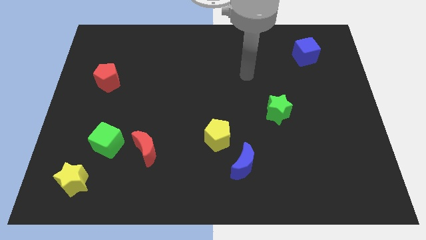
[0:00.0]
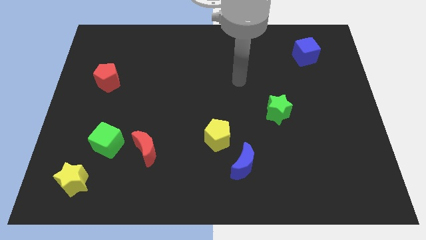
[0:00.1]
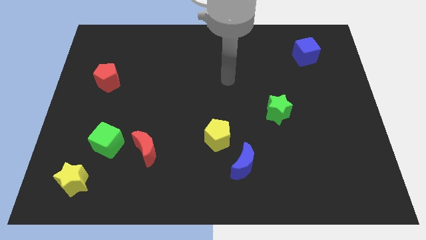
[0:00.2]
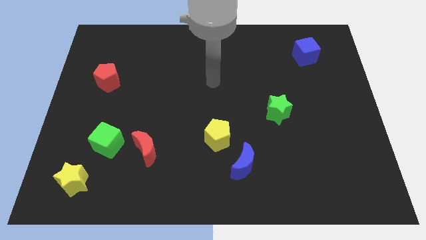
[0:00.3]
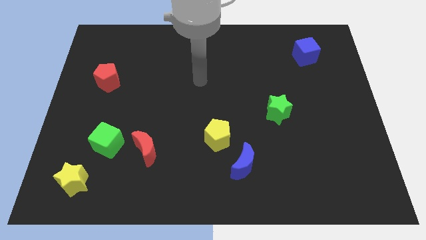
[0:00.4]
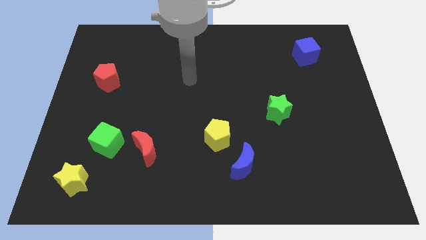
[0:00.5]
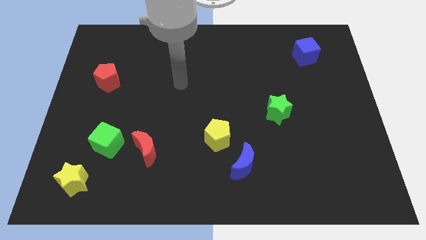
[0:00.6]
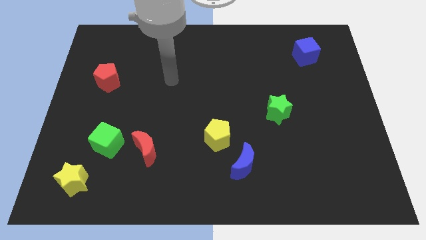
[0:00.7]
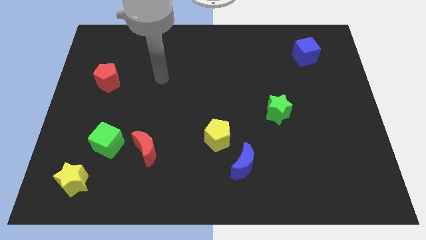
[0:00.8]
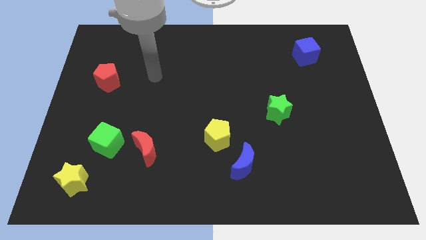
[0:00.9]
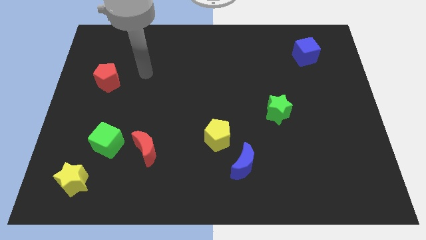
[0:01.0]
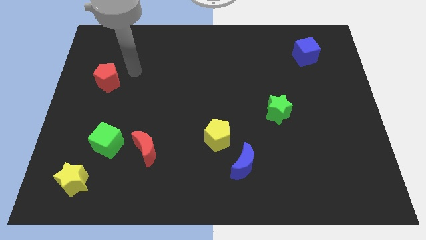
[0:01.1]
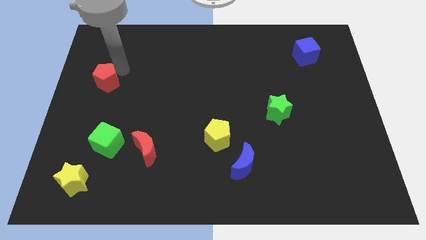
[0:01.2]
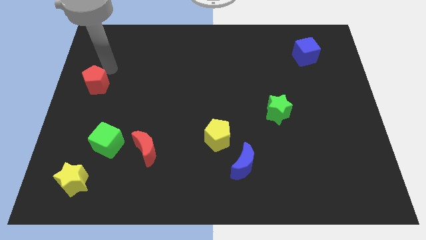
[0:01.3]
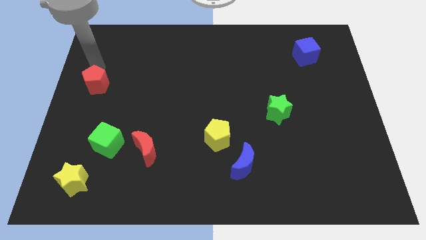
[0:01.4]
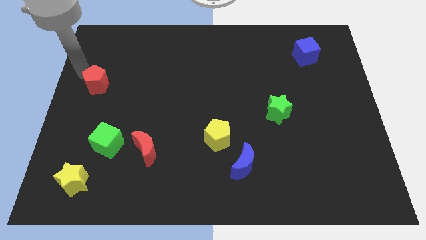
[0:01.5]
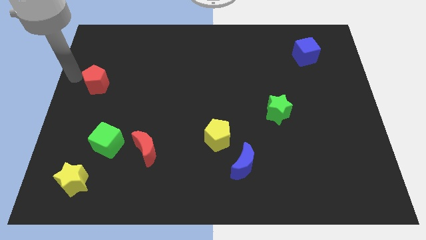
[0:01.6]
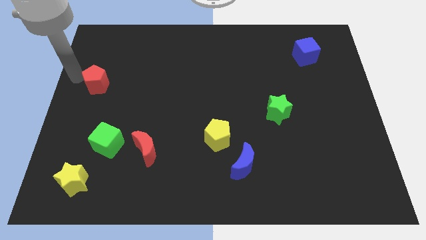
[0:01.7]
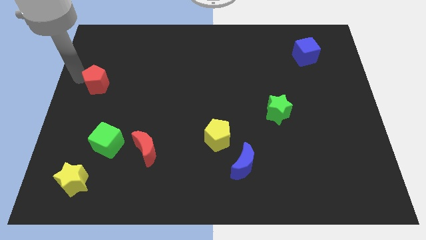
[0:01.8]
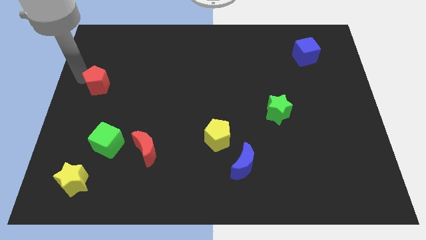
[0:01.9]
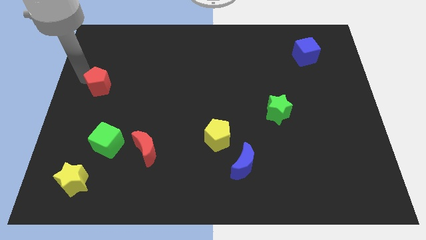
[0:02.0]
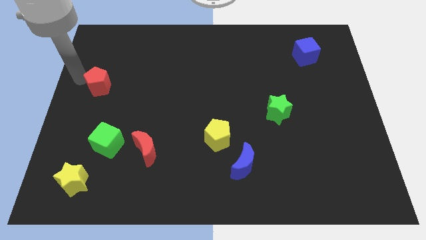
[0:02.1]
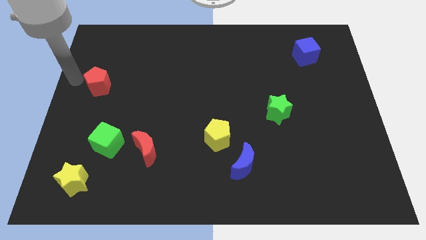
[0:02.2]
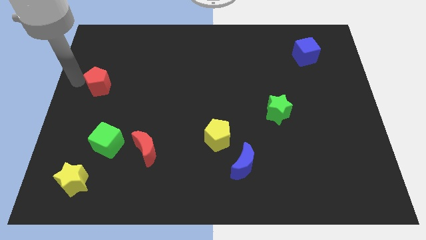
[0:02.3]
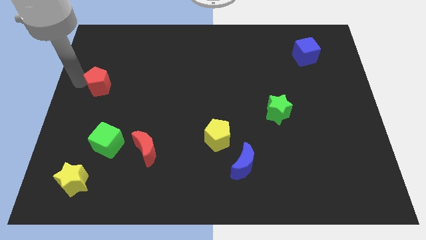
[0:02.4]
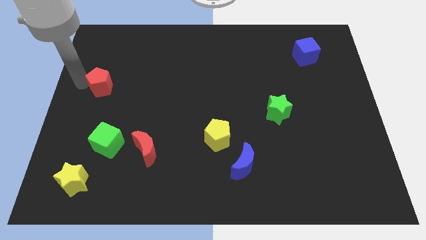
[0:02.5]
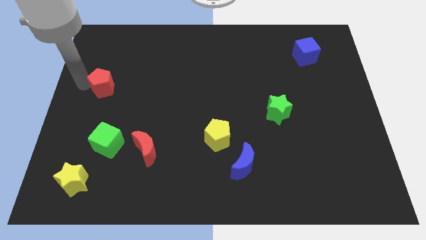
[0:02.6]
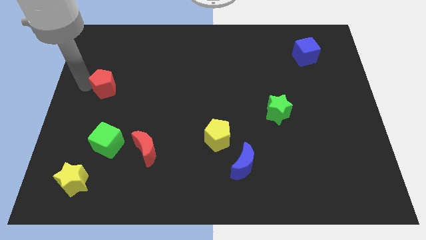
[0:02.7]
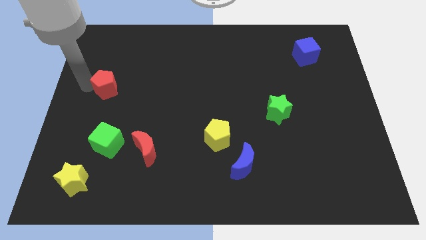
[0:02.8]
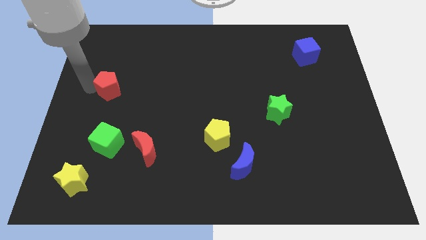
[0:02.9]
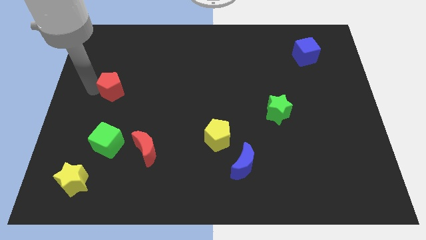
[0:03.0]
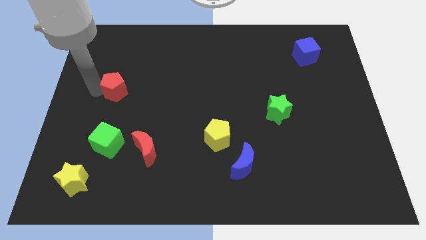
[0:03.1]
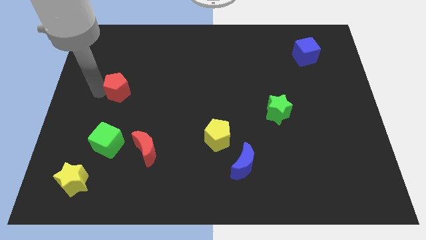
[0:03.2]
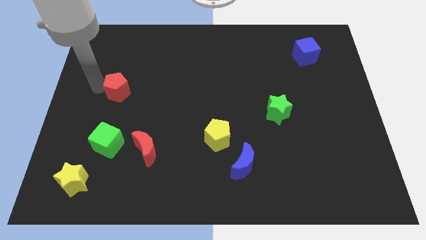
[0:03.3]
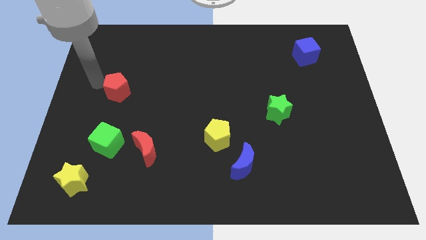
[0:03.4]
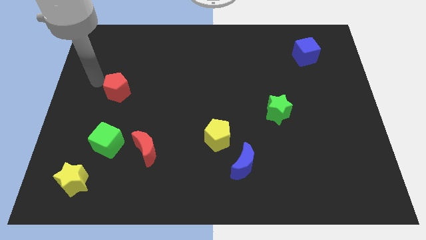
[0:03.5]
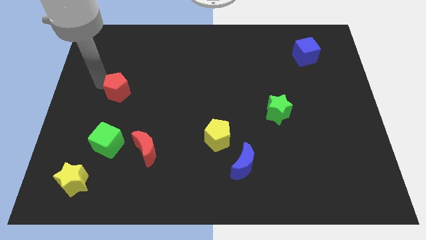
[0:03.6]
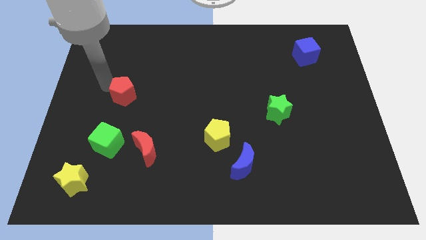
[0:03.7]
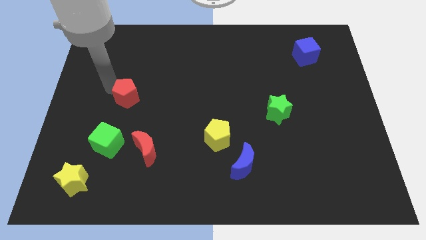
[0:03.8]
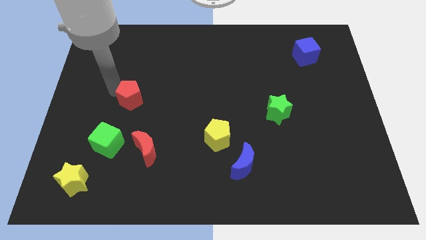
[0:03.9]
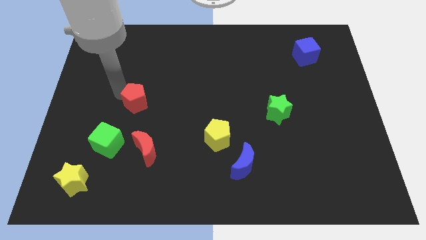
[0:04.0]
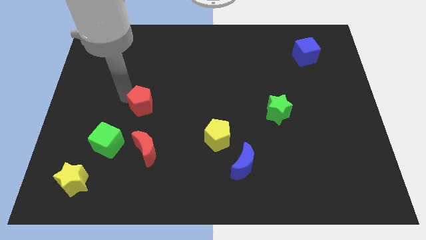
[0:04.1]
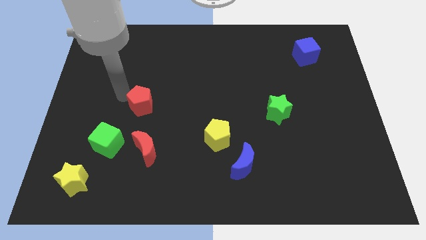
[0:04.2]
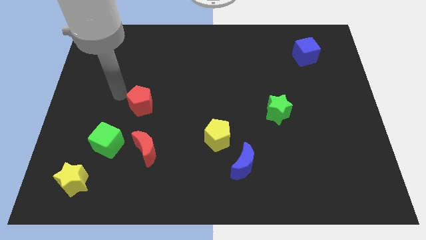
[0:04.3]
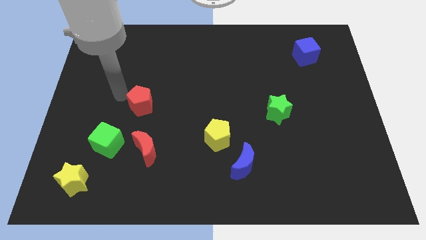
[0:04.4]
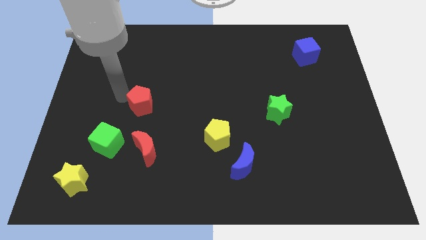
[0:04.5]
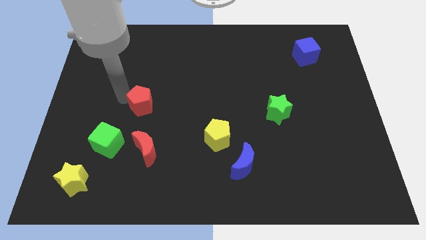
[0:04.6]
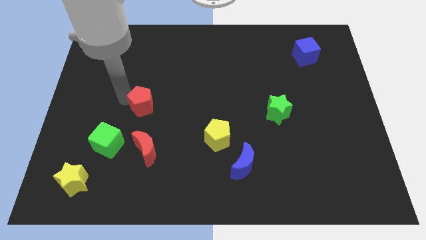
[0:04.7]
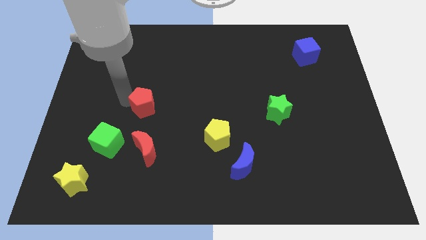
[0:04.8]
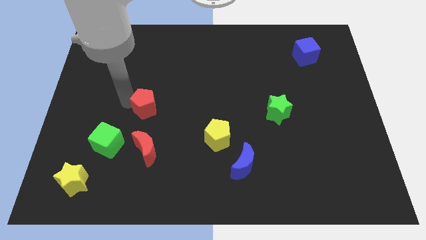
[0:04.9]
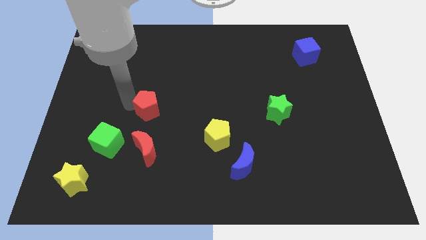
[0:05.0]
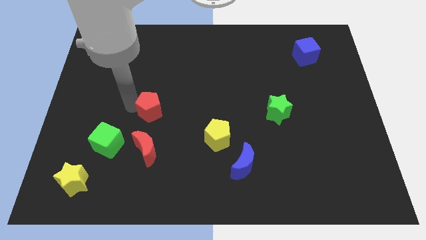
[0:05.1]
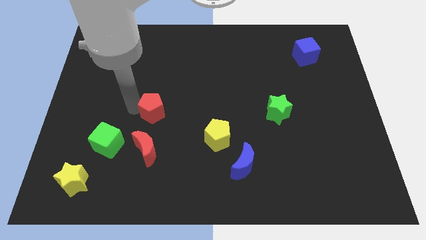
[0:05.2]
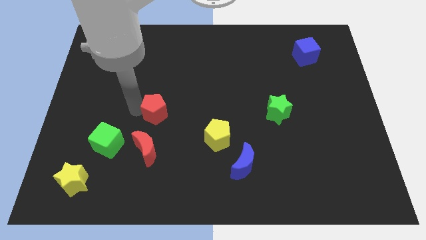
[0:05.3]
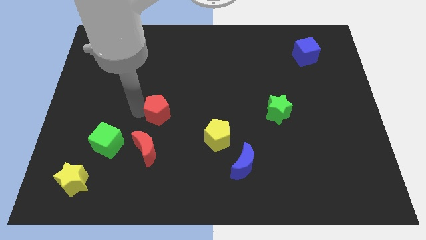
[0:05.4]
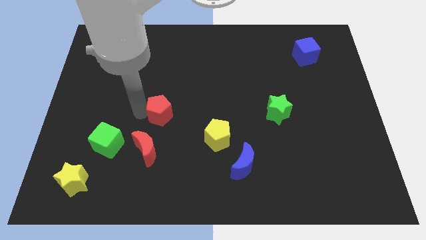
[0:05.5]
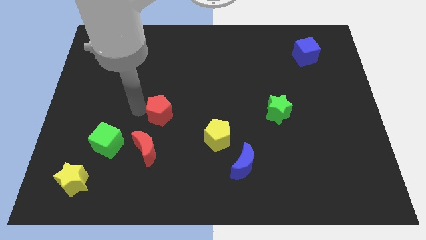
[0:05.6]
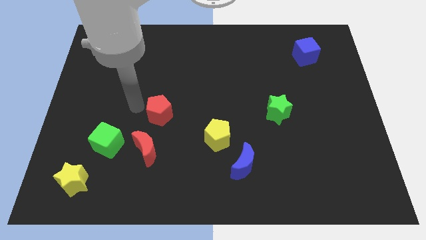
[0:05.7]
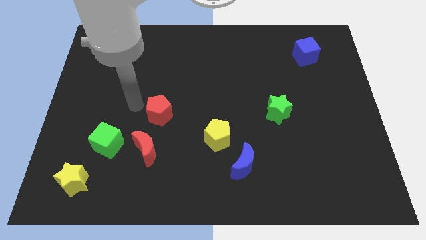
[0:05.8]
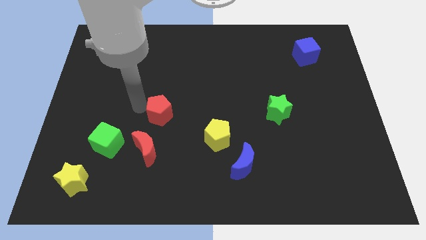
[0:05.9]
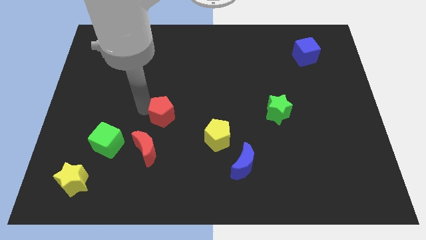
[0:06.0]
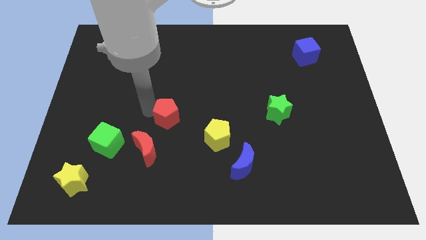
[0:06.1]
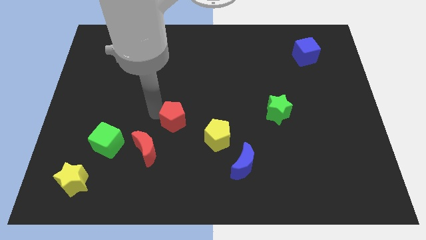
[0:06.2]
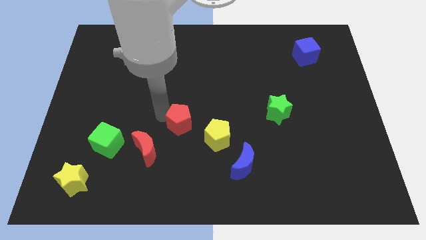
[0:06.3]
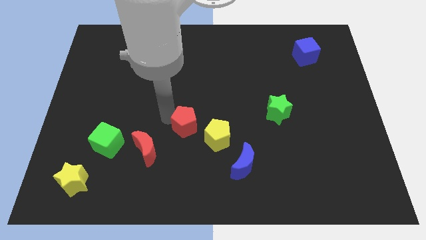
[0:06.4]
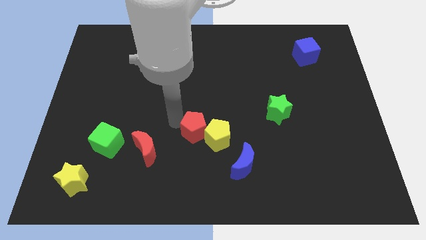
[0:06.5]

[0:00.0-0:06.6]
push the red pentagon towards the yellow pentagon

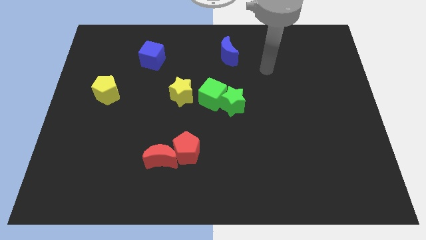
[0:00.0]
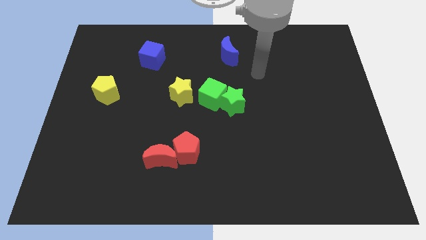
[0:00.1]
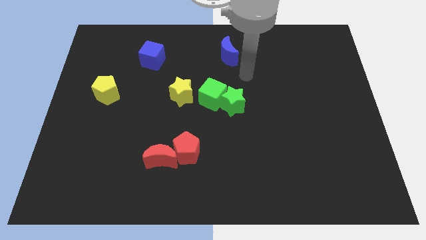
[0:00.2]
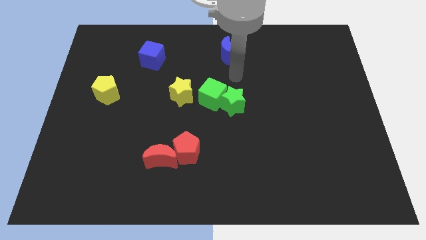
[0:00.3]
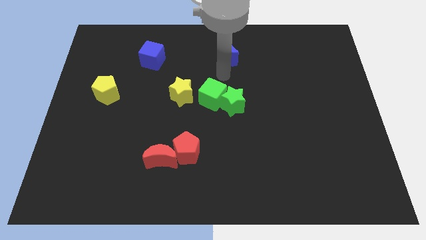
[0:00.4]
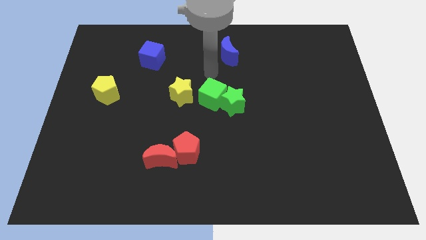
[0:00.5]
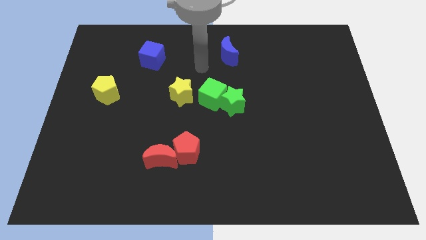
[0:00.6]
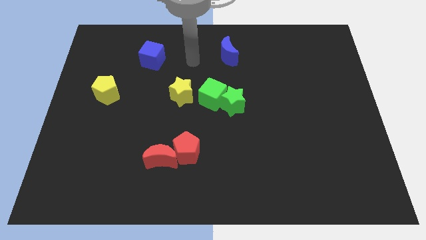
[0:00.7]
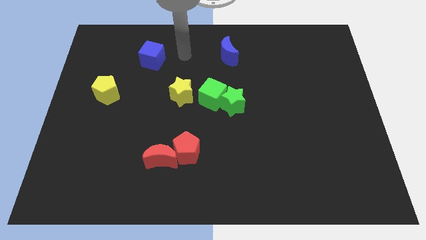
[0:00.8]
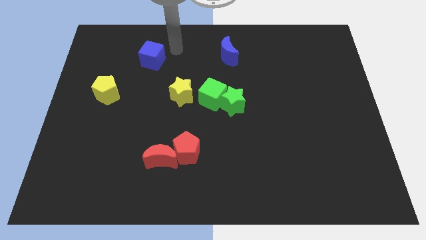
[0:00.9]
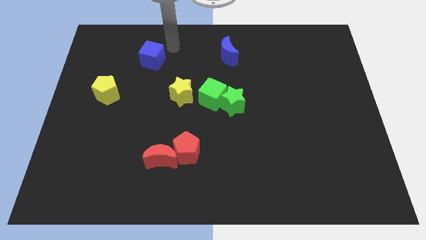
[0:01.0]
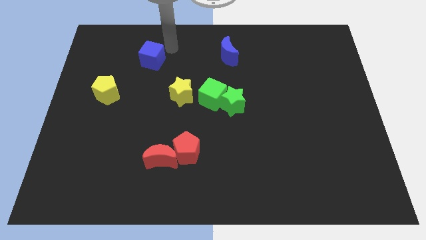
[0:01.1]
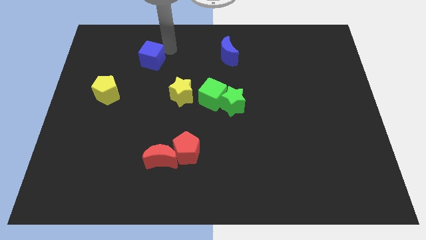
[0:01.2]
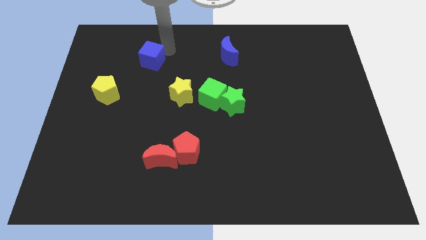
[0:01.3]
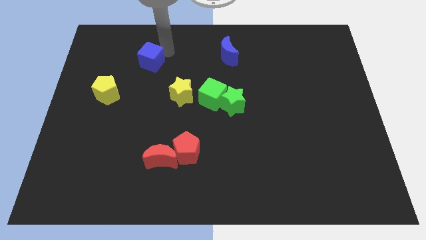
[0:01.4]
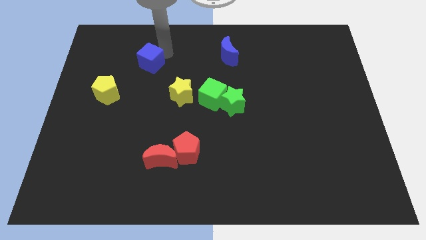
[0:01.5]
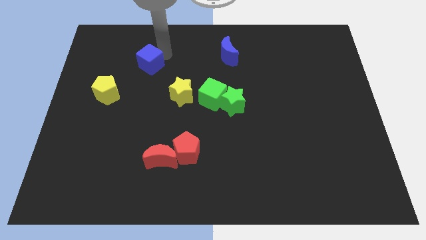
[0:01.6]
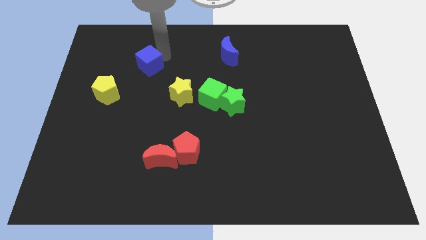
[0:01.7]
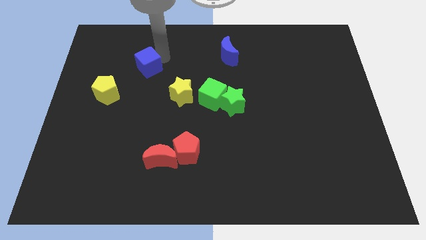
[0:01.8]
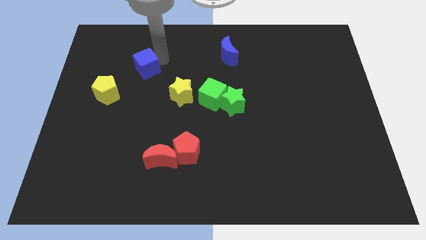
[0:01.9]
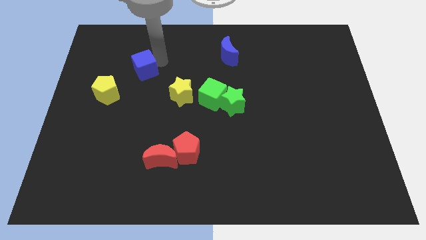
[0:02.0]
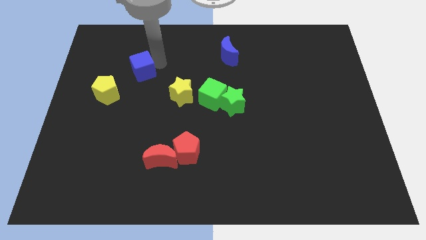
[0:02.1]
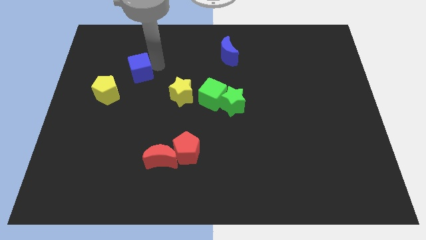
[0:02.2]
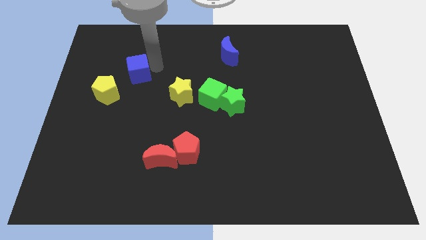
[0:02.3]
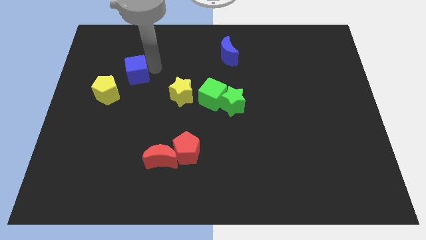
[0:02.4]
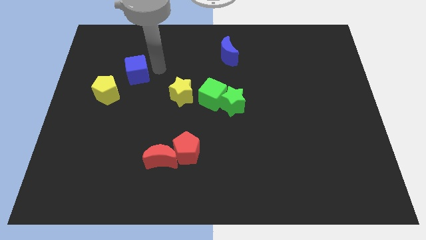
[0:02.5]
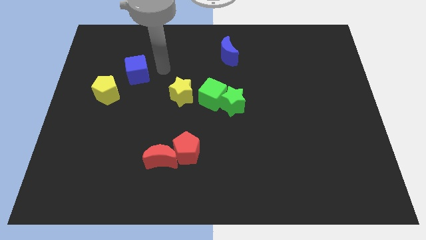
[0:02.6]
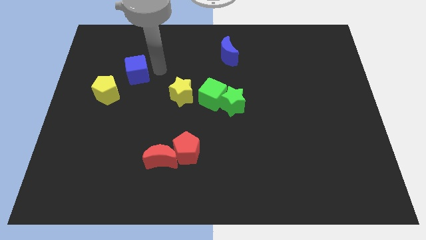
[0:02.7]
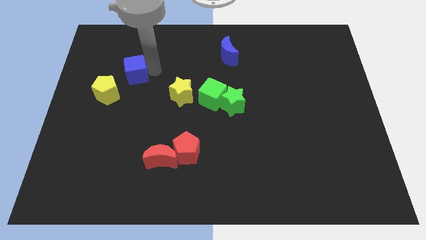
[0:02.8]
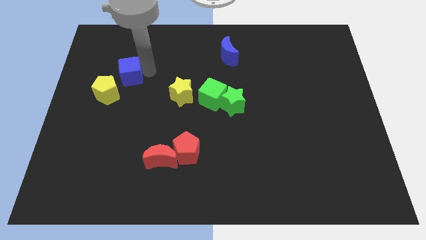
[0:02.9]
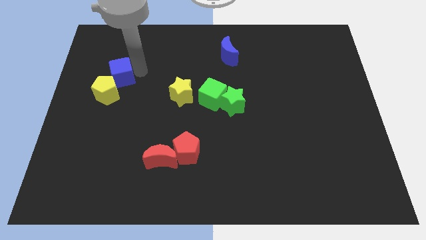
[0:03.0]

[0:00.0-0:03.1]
push the blue cube to the yellow pentagon
